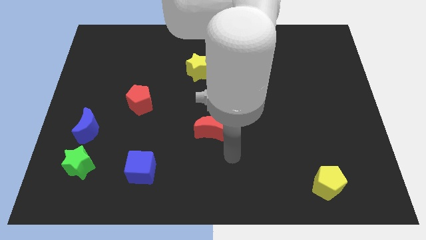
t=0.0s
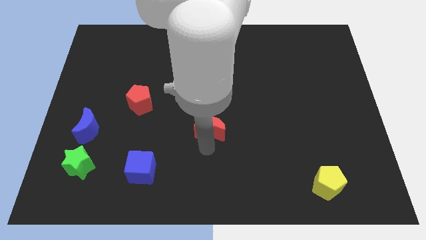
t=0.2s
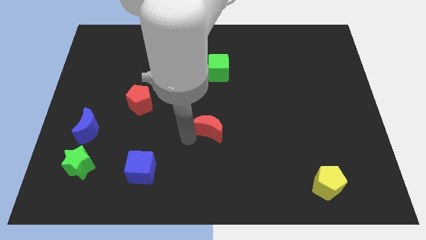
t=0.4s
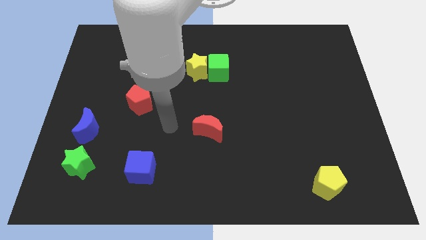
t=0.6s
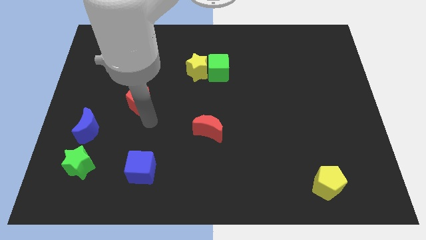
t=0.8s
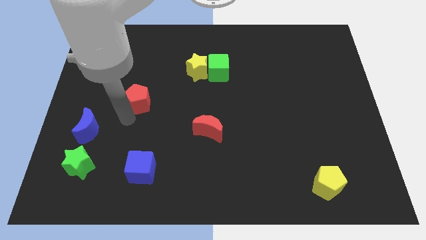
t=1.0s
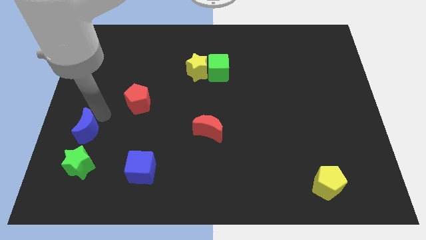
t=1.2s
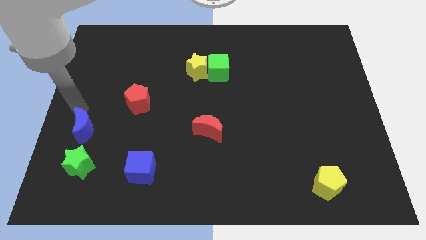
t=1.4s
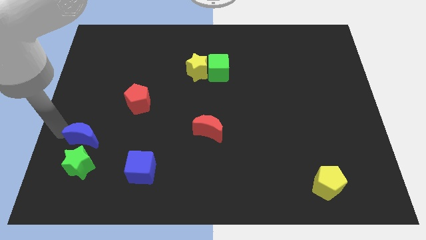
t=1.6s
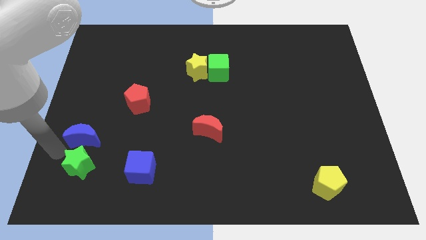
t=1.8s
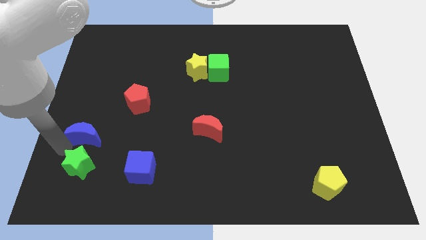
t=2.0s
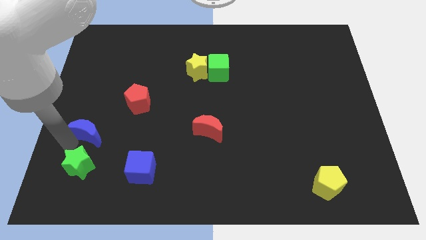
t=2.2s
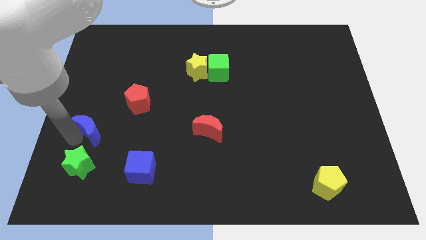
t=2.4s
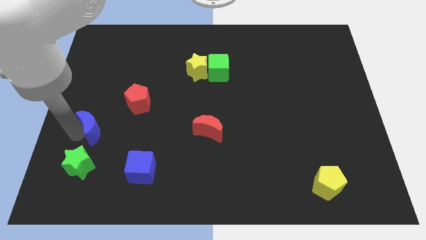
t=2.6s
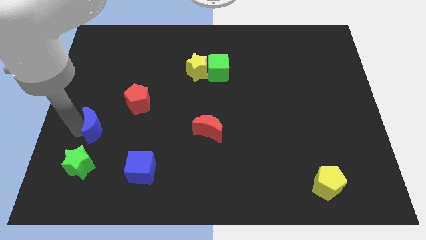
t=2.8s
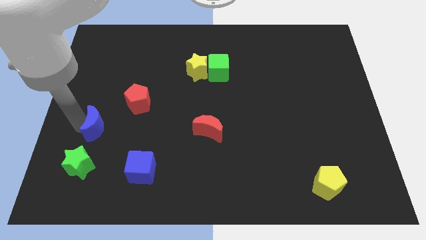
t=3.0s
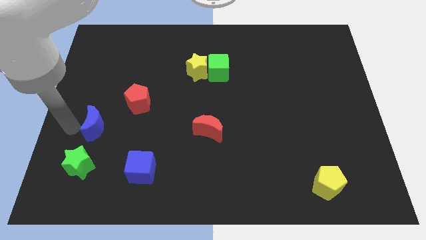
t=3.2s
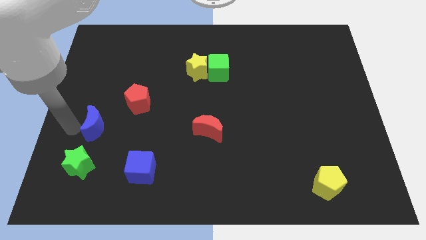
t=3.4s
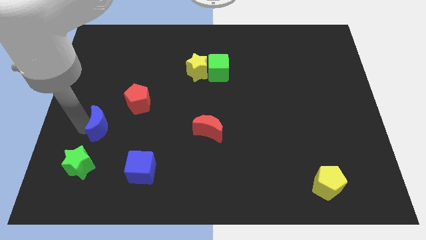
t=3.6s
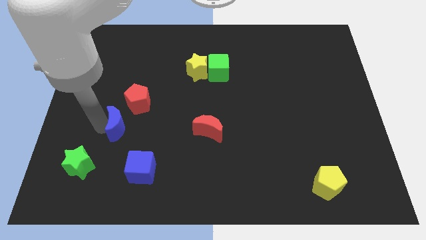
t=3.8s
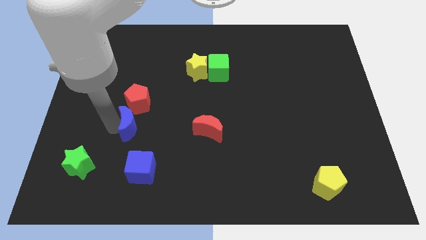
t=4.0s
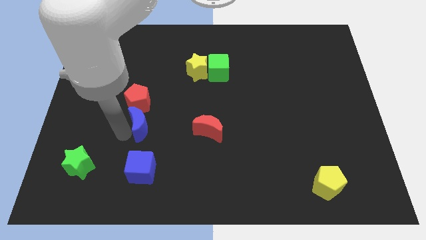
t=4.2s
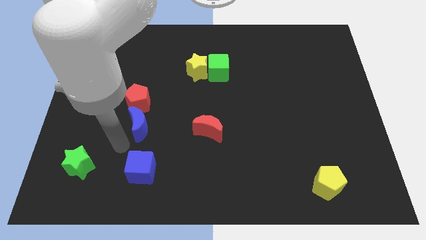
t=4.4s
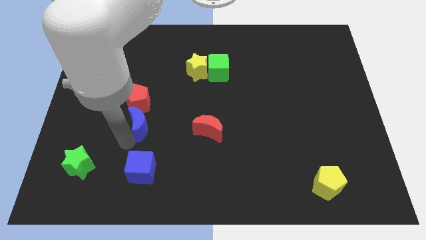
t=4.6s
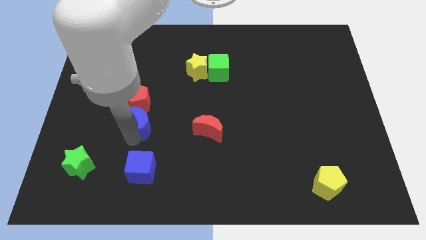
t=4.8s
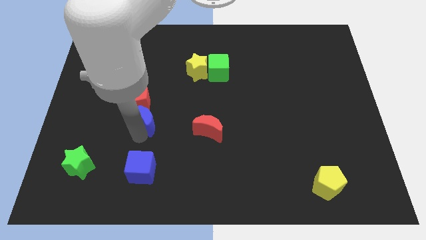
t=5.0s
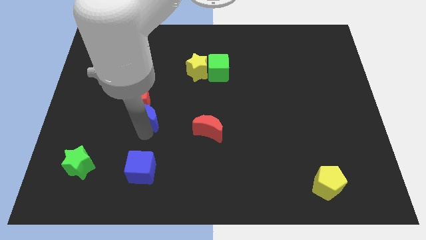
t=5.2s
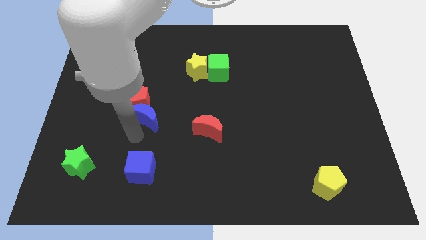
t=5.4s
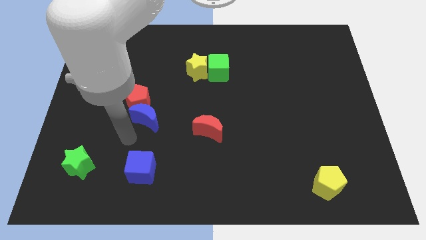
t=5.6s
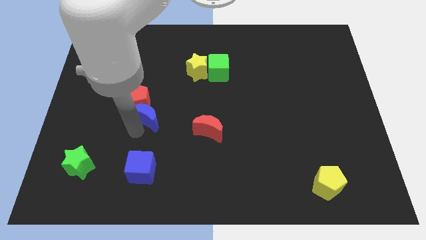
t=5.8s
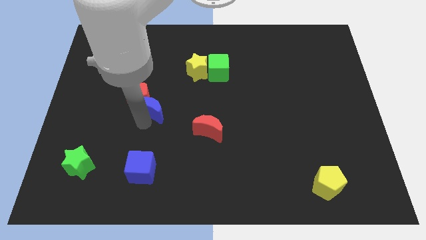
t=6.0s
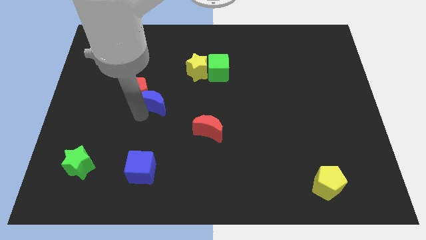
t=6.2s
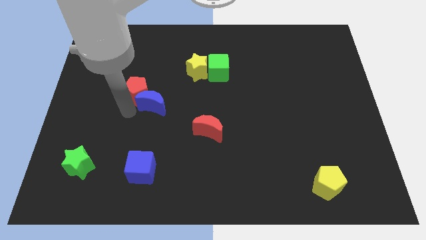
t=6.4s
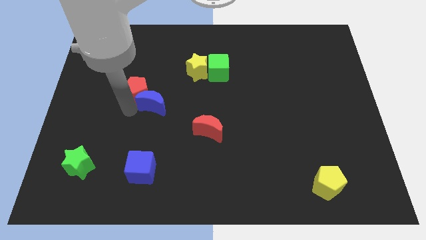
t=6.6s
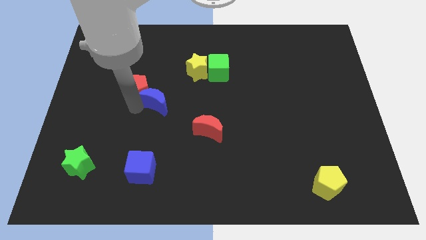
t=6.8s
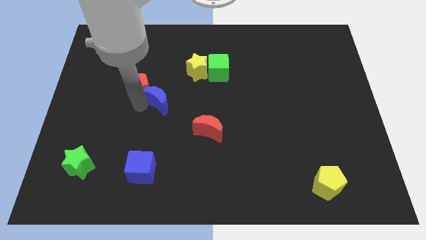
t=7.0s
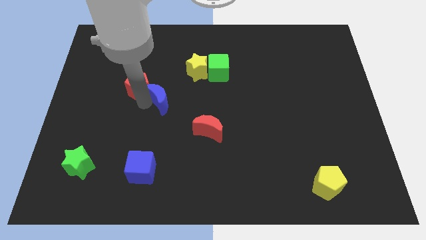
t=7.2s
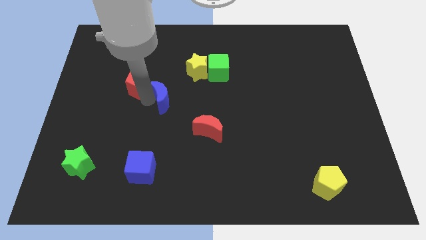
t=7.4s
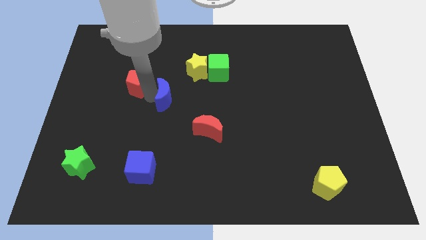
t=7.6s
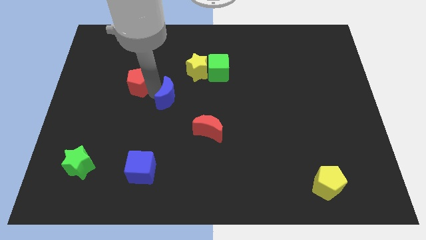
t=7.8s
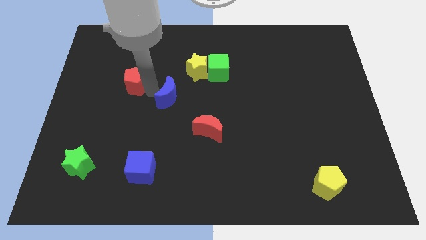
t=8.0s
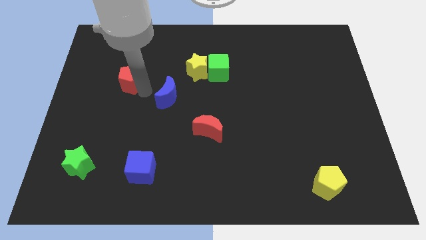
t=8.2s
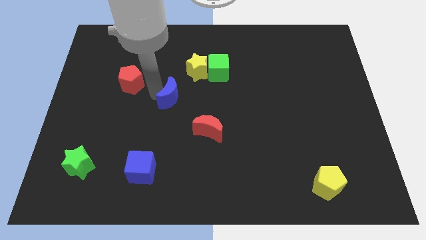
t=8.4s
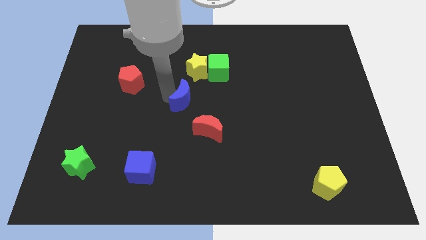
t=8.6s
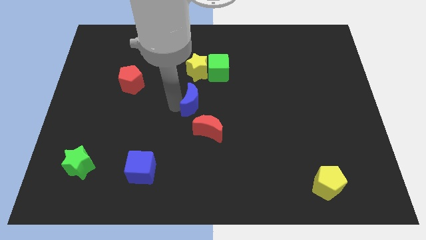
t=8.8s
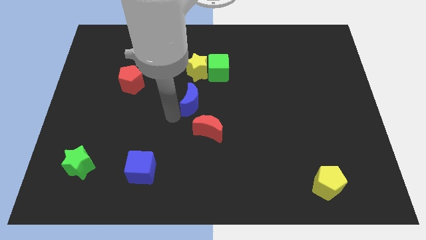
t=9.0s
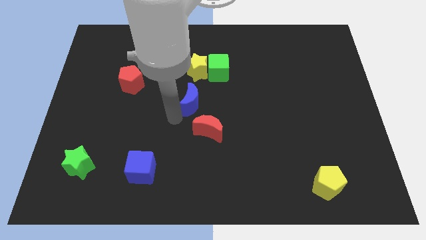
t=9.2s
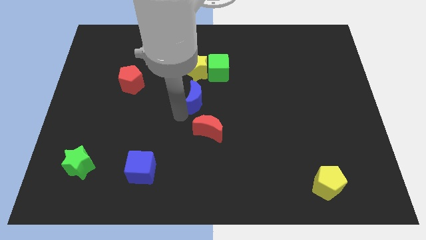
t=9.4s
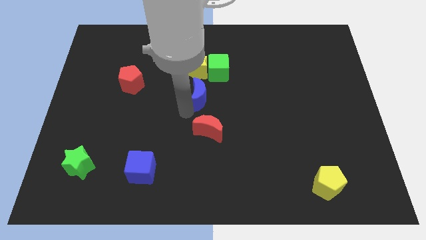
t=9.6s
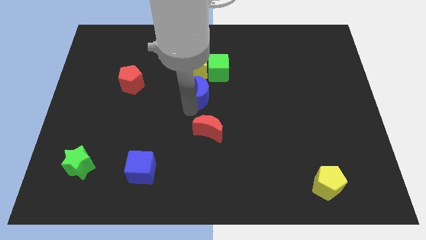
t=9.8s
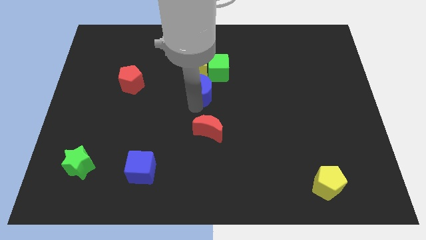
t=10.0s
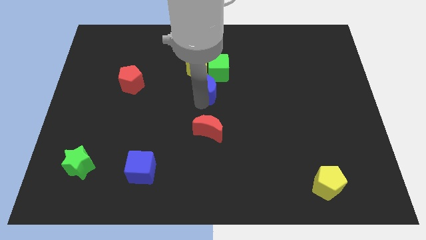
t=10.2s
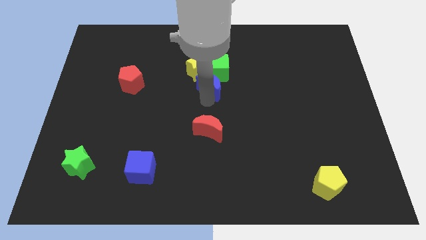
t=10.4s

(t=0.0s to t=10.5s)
push the blue moon towards the green cube

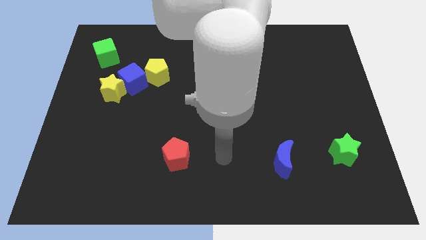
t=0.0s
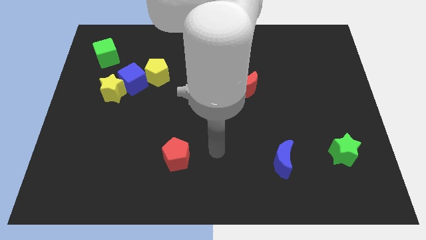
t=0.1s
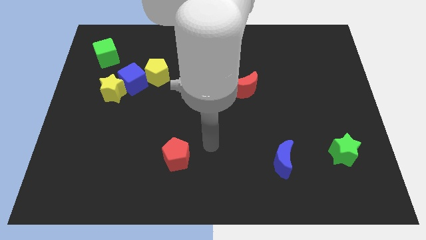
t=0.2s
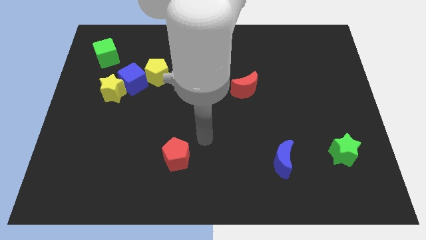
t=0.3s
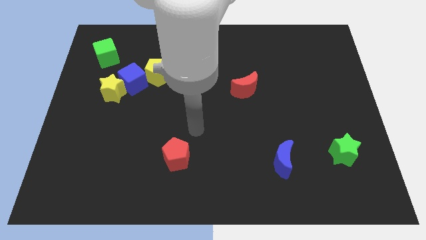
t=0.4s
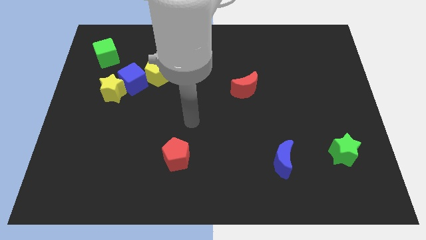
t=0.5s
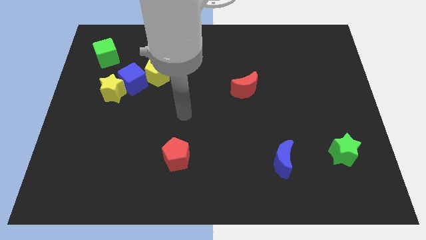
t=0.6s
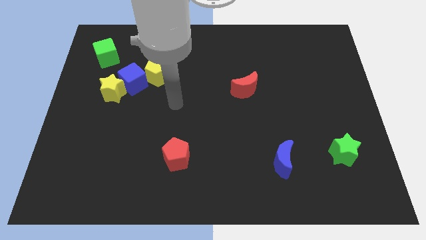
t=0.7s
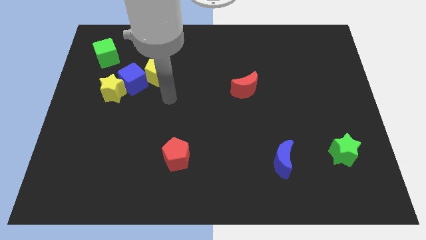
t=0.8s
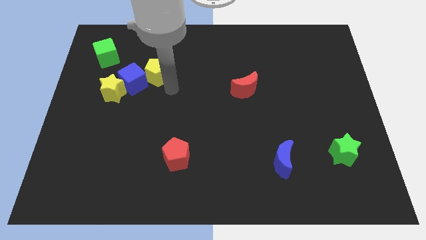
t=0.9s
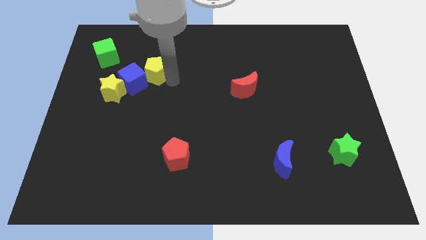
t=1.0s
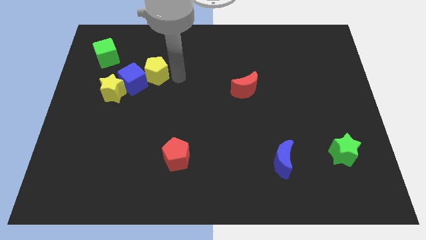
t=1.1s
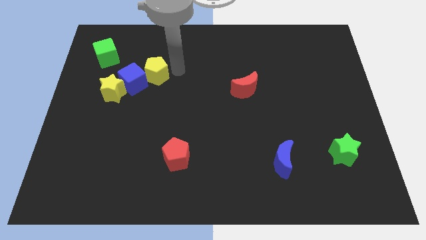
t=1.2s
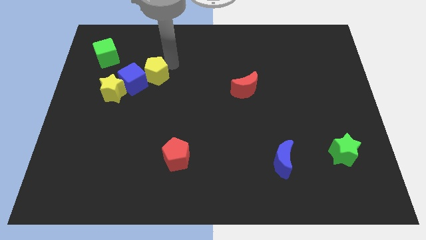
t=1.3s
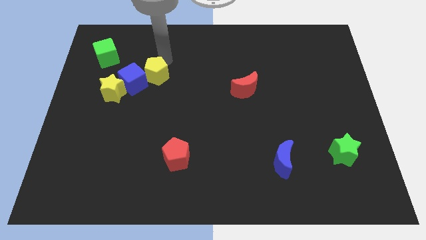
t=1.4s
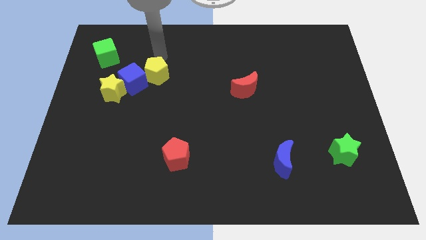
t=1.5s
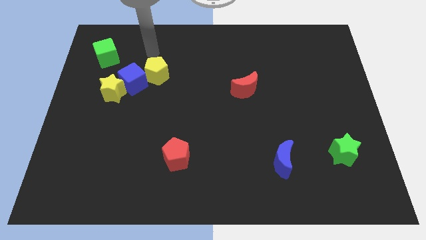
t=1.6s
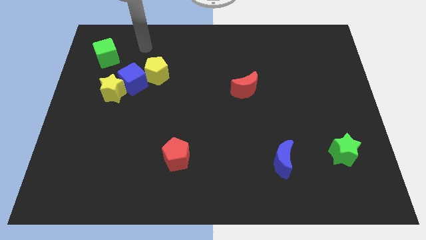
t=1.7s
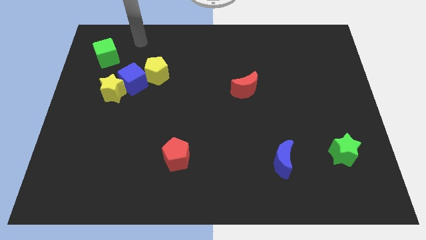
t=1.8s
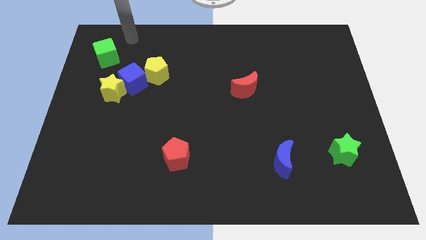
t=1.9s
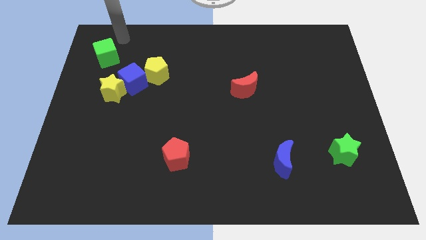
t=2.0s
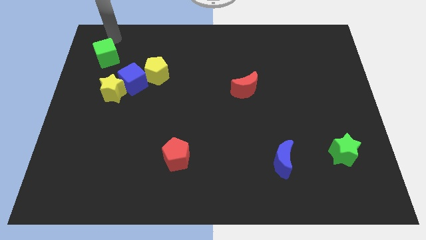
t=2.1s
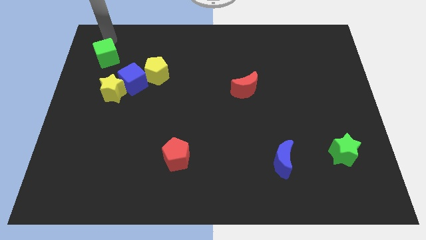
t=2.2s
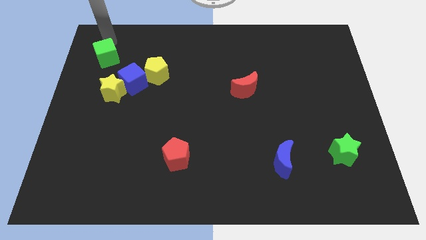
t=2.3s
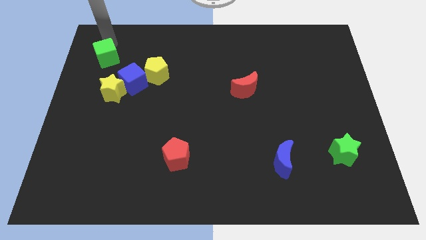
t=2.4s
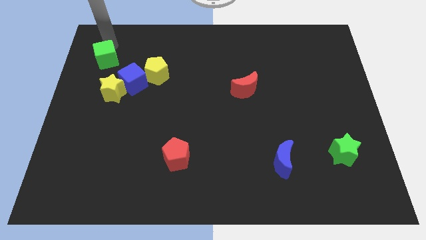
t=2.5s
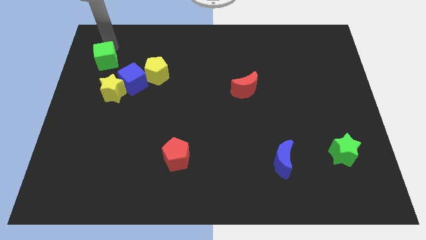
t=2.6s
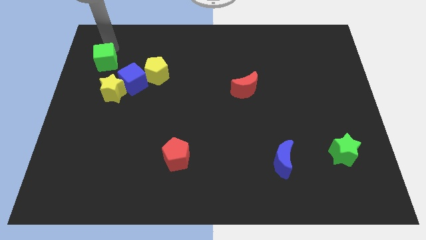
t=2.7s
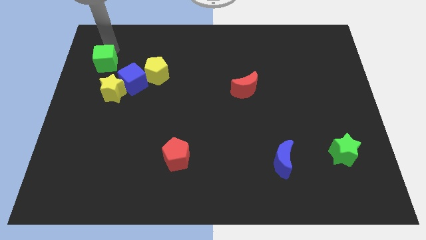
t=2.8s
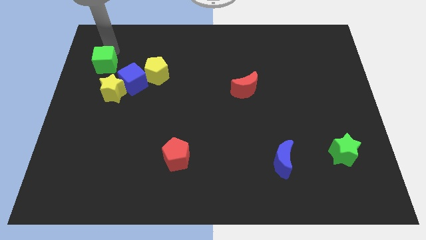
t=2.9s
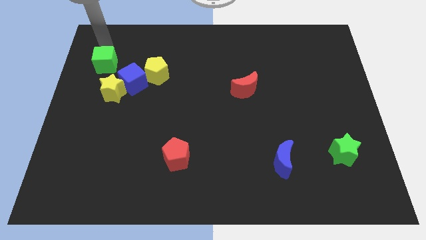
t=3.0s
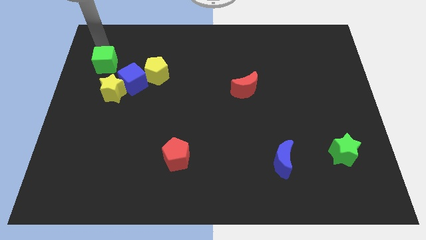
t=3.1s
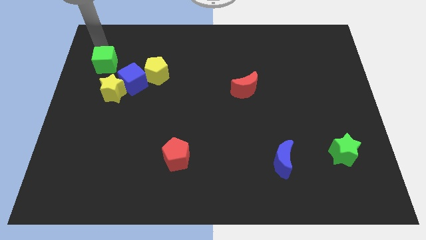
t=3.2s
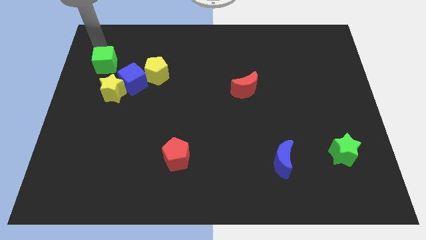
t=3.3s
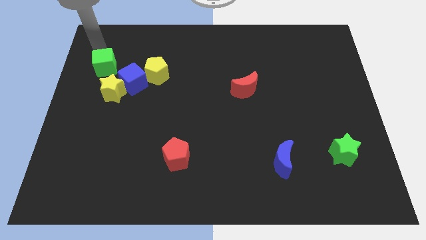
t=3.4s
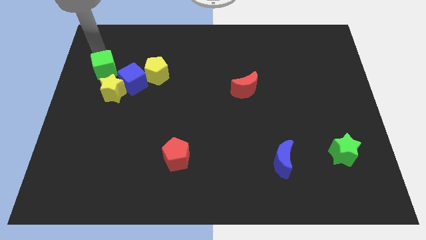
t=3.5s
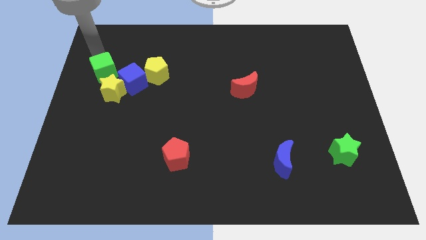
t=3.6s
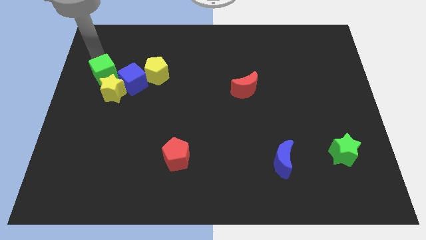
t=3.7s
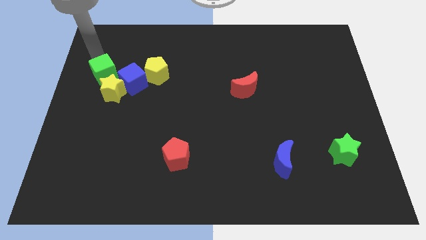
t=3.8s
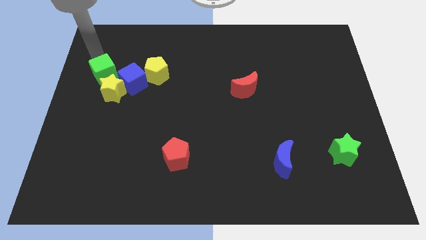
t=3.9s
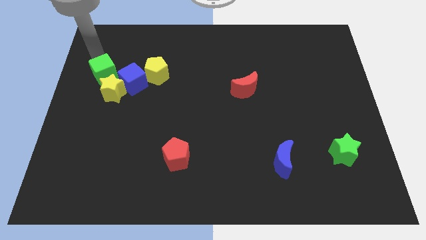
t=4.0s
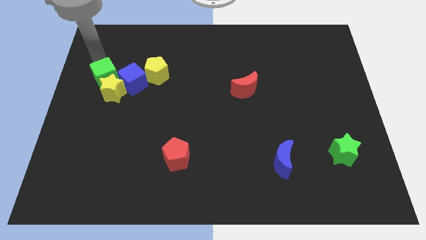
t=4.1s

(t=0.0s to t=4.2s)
put the green cube towards the yellow star
